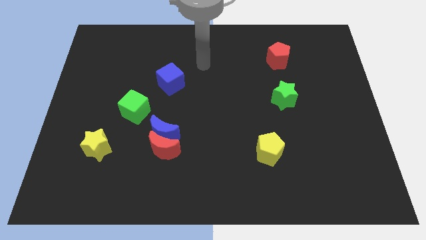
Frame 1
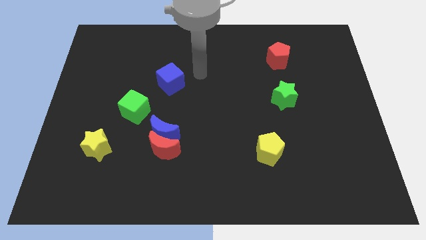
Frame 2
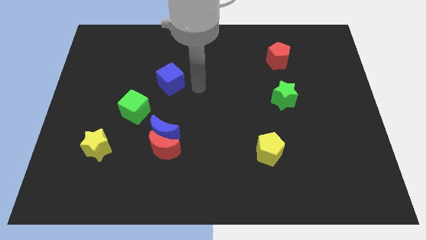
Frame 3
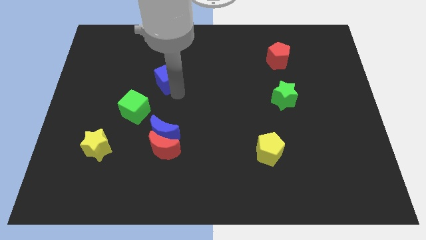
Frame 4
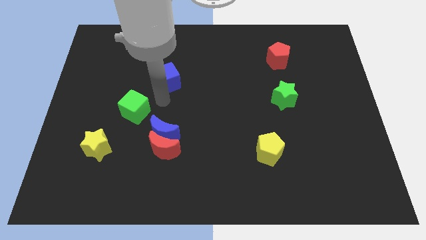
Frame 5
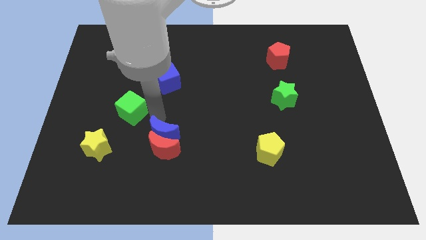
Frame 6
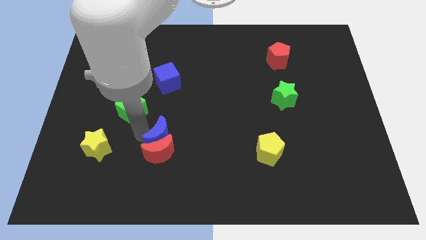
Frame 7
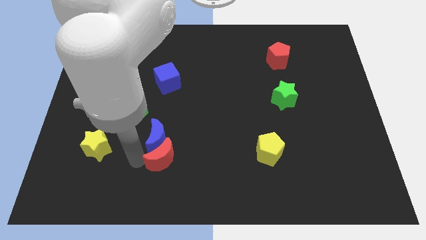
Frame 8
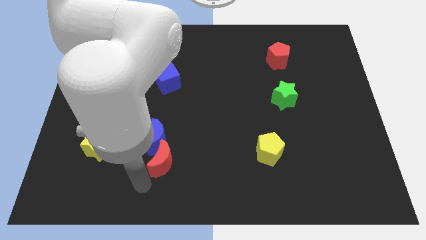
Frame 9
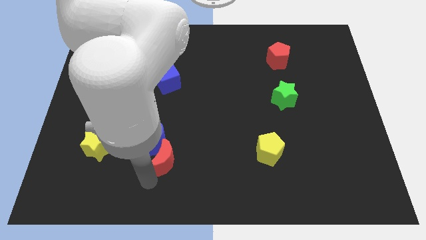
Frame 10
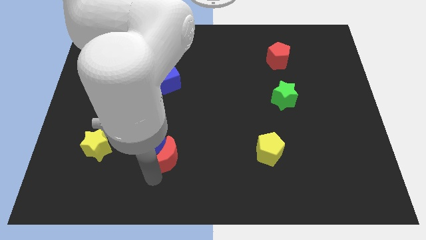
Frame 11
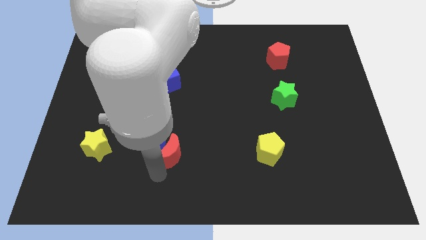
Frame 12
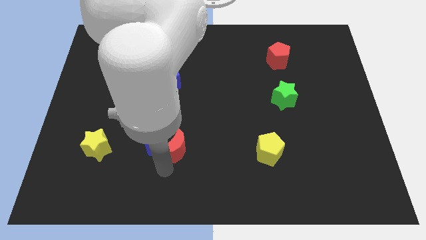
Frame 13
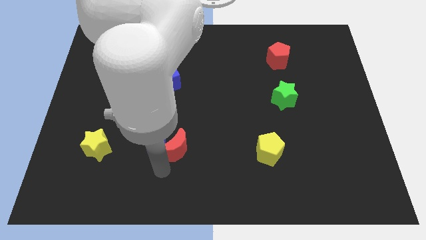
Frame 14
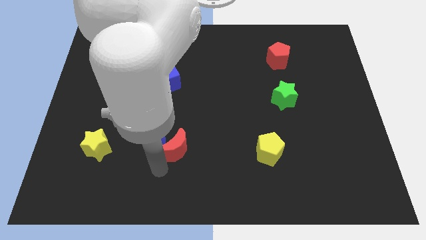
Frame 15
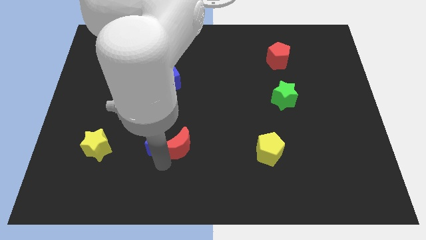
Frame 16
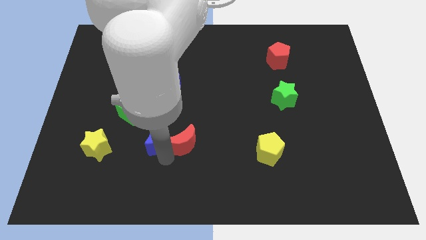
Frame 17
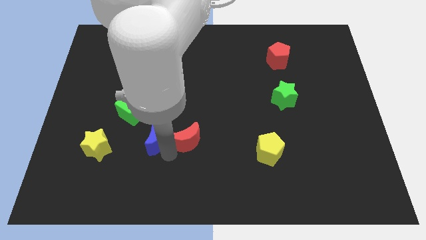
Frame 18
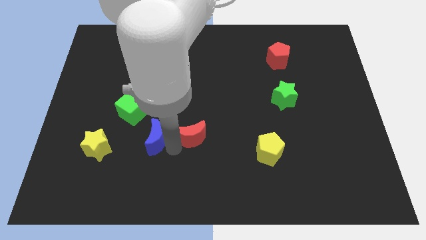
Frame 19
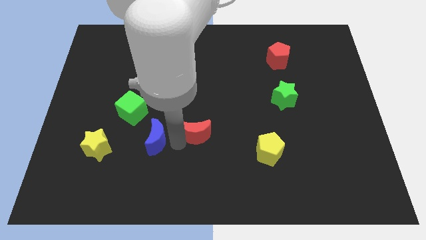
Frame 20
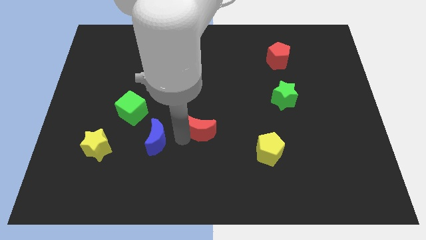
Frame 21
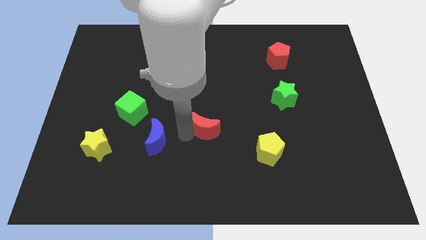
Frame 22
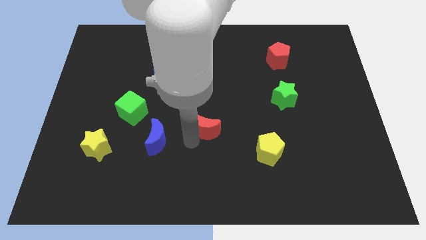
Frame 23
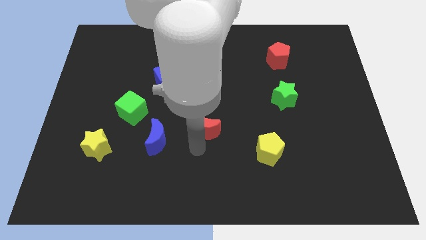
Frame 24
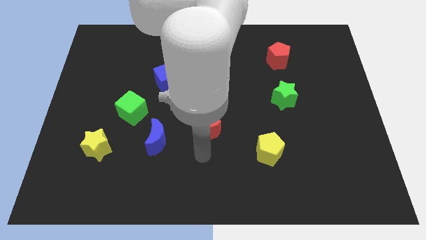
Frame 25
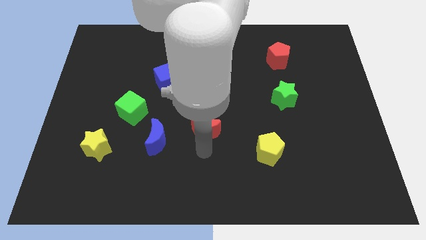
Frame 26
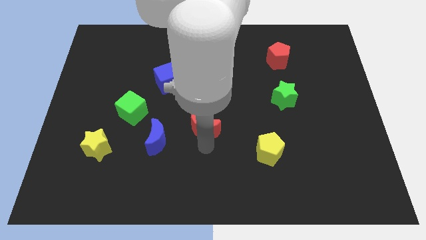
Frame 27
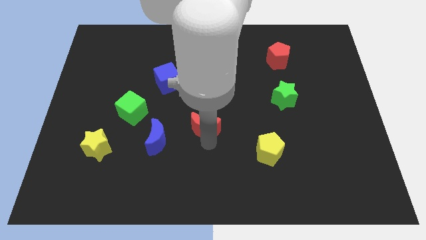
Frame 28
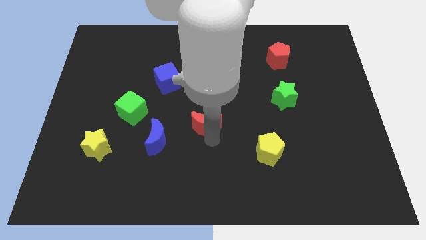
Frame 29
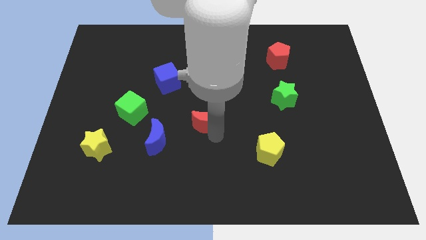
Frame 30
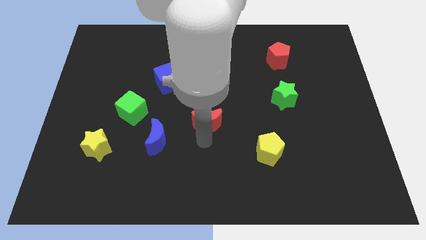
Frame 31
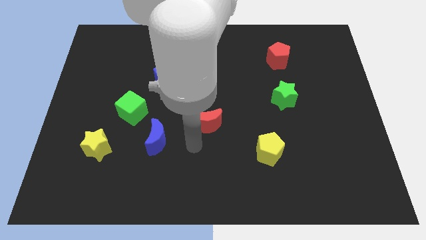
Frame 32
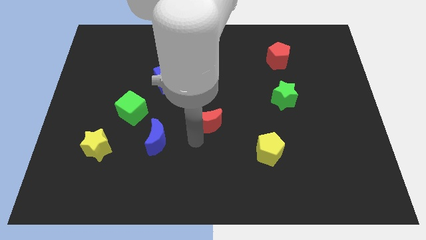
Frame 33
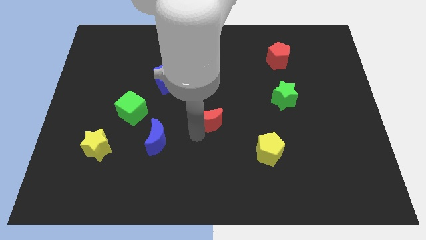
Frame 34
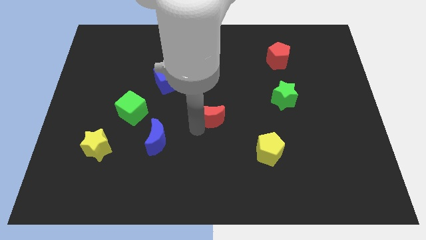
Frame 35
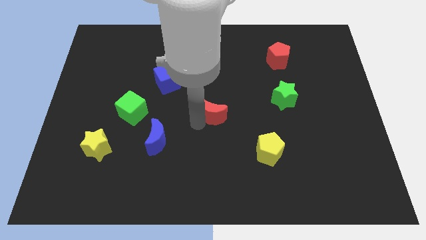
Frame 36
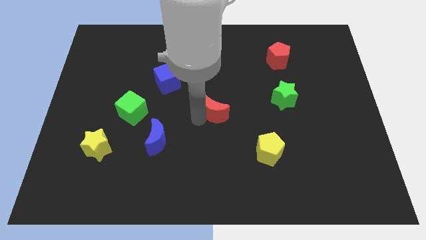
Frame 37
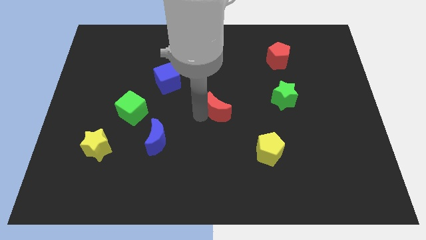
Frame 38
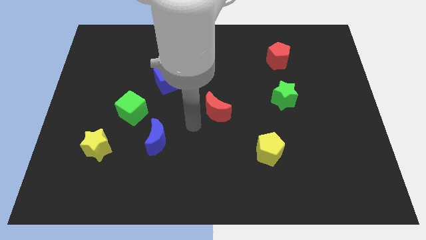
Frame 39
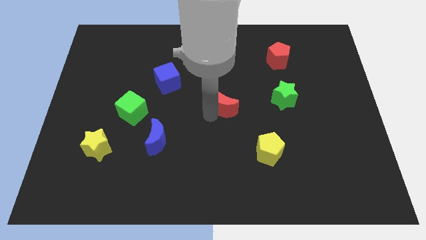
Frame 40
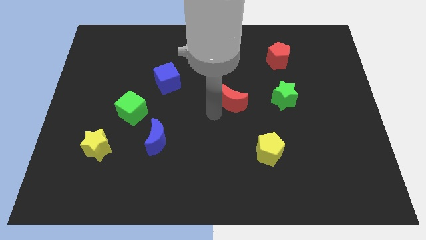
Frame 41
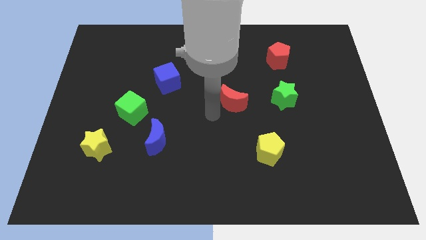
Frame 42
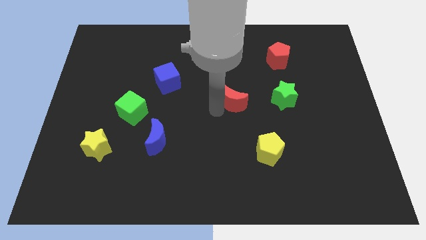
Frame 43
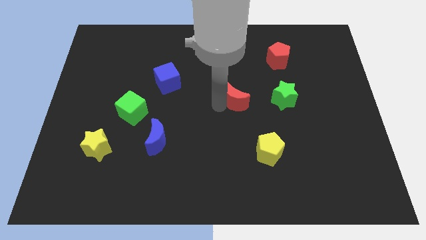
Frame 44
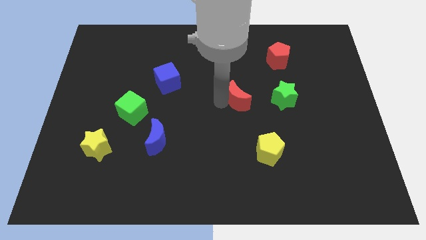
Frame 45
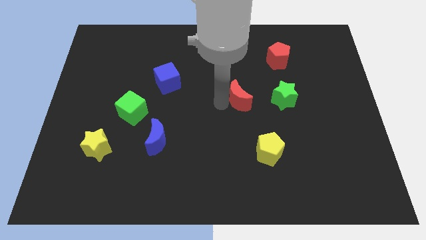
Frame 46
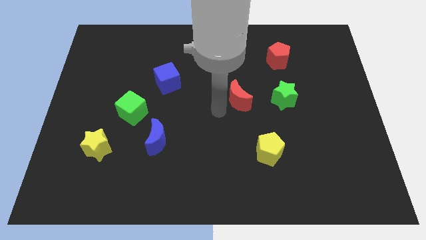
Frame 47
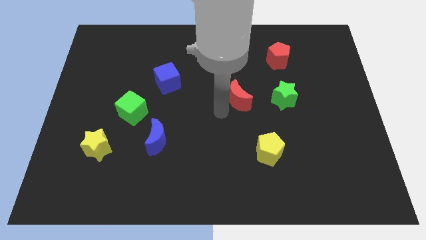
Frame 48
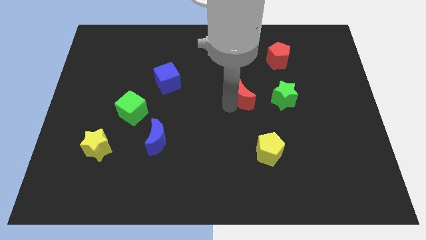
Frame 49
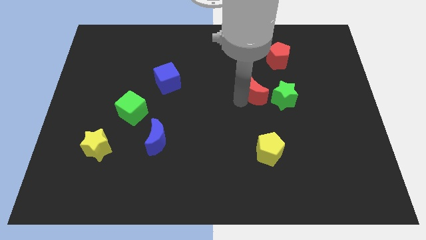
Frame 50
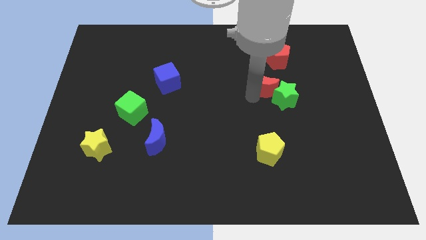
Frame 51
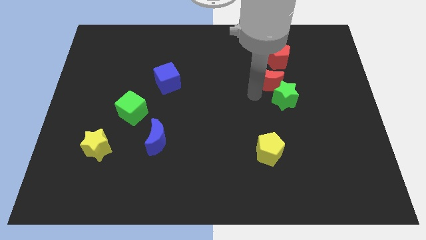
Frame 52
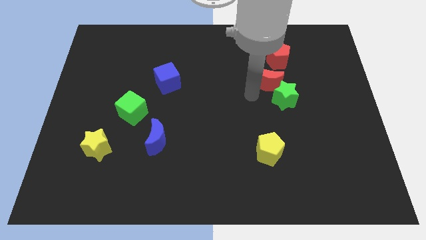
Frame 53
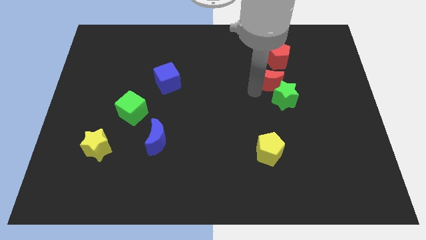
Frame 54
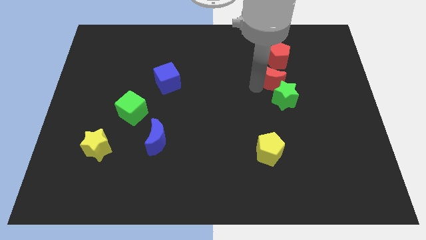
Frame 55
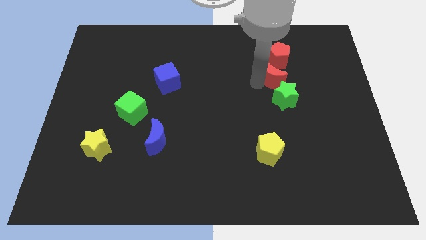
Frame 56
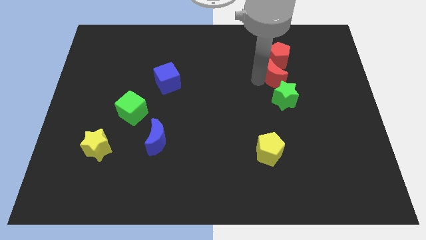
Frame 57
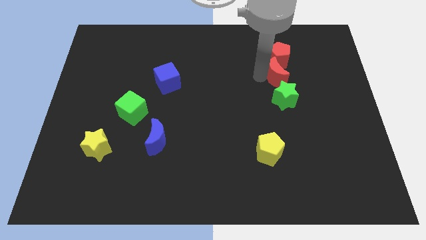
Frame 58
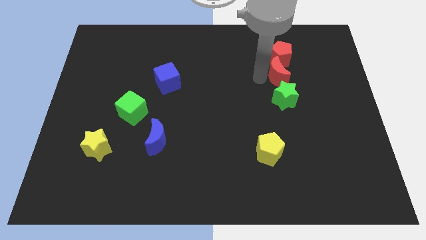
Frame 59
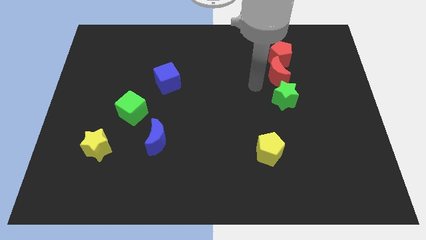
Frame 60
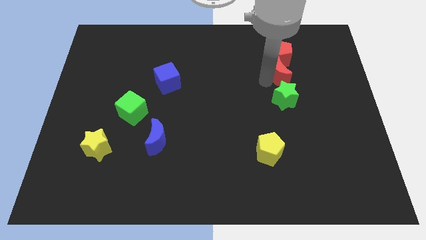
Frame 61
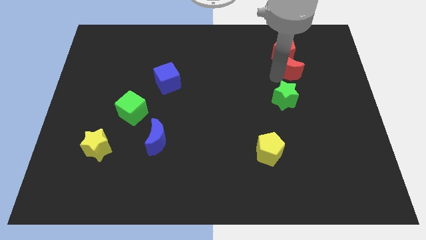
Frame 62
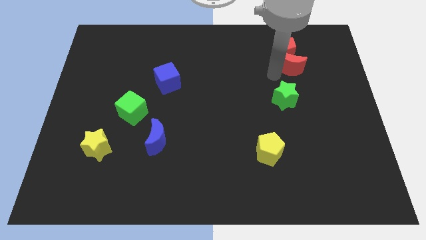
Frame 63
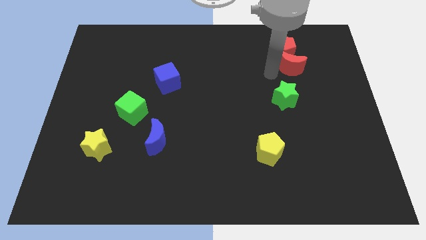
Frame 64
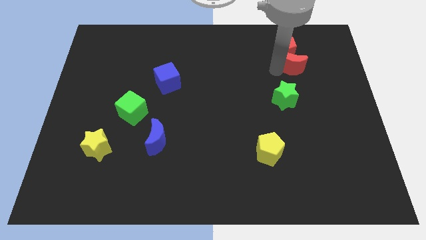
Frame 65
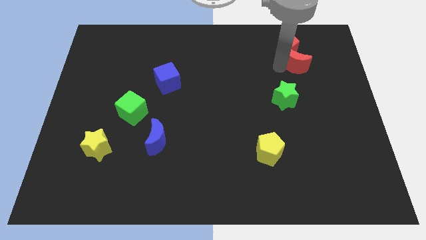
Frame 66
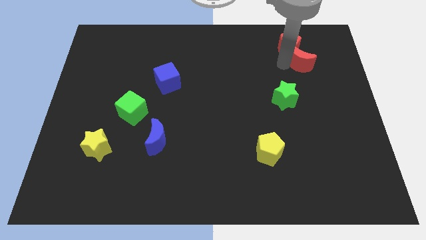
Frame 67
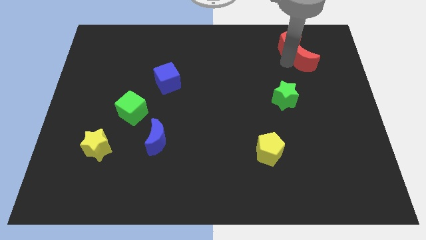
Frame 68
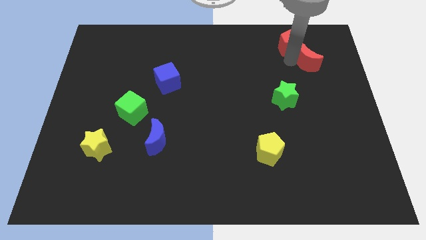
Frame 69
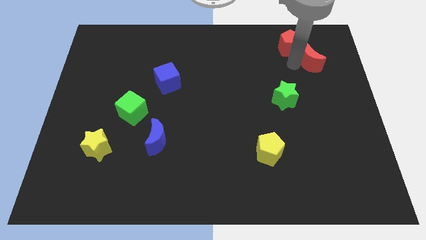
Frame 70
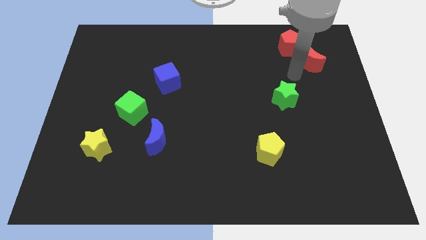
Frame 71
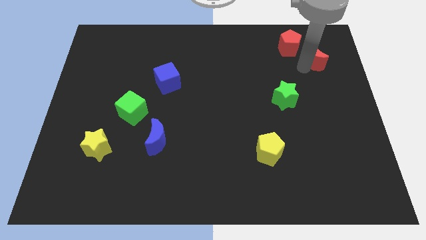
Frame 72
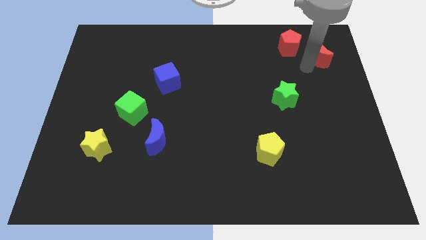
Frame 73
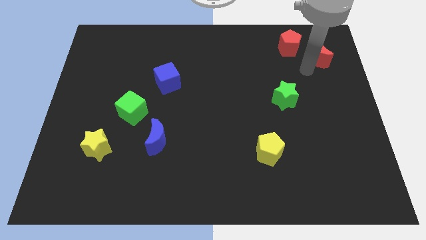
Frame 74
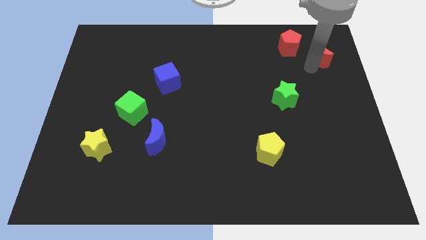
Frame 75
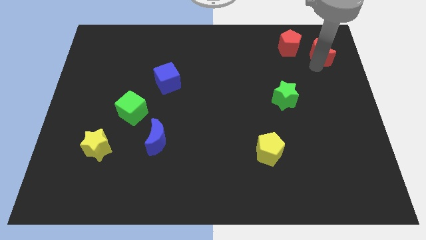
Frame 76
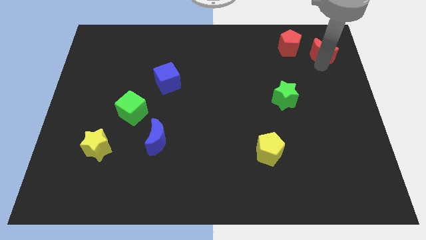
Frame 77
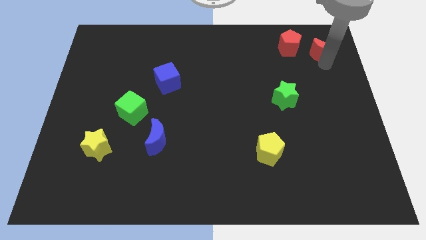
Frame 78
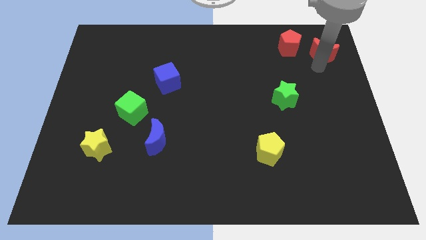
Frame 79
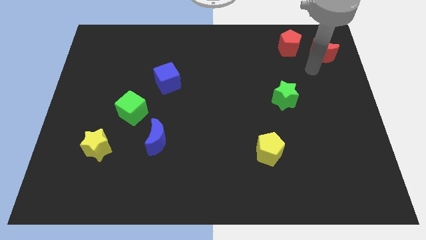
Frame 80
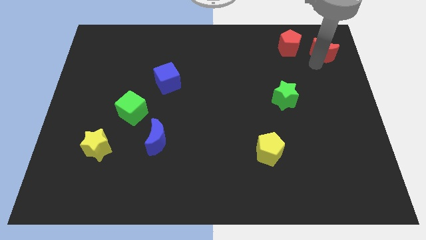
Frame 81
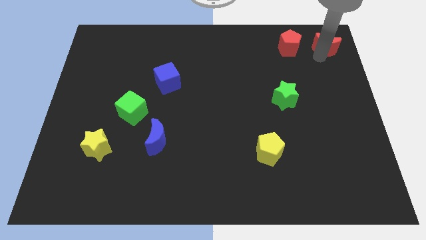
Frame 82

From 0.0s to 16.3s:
push the red moon to the top right
